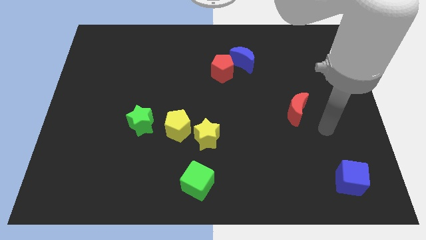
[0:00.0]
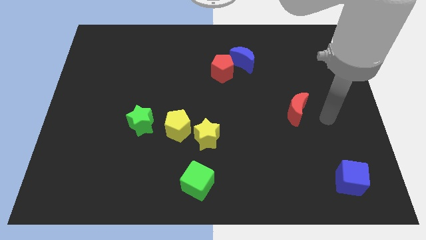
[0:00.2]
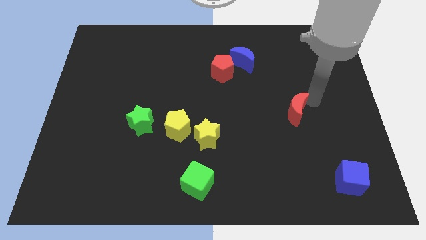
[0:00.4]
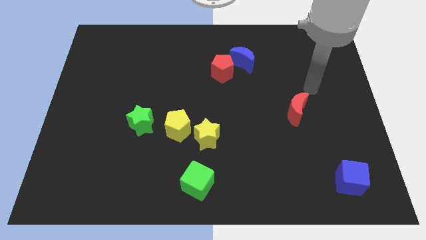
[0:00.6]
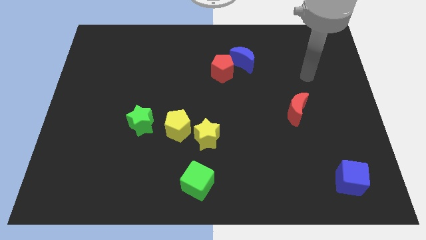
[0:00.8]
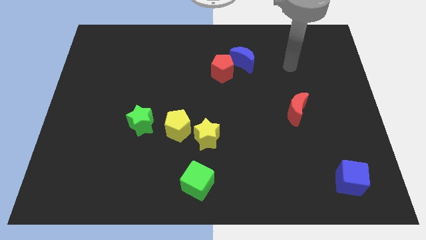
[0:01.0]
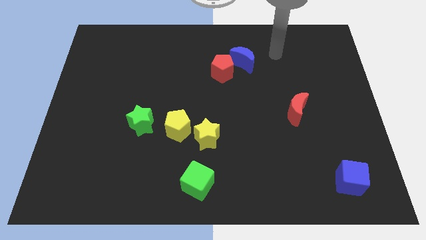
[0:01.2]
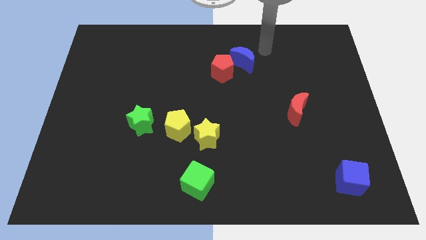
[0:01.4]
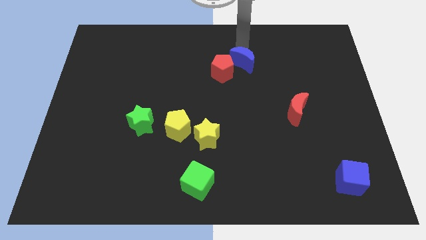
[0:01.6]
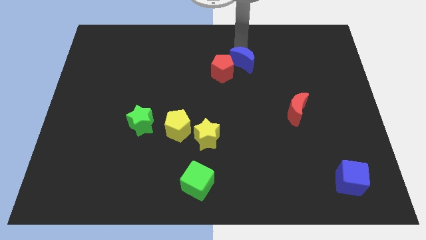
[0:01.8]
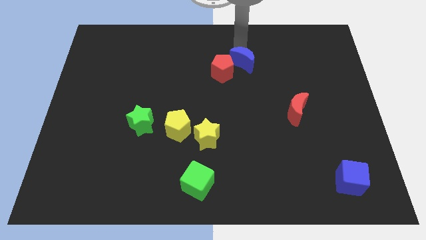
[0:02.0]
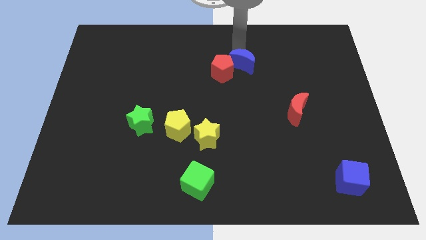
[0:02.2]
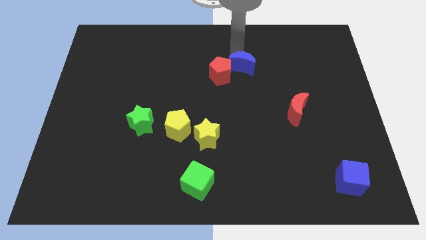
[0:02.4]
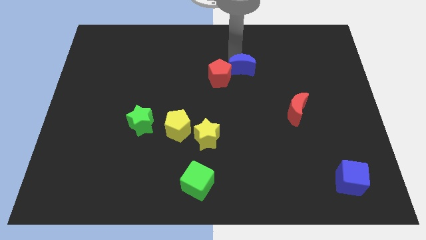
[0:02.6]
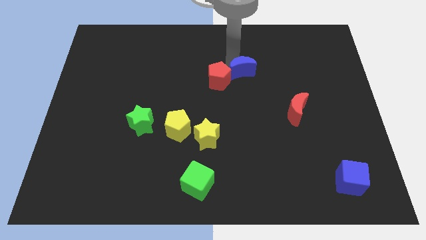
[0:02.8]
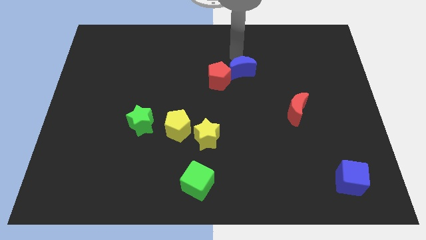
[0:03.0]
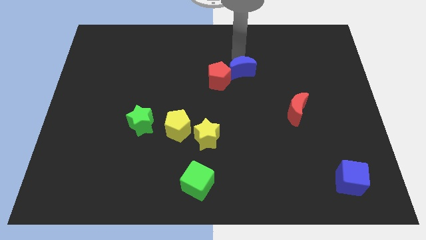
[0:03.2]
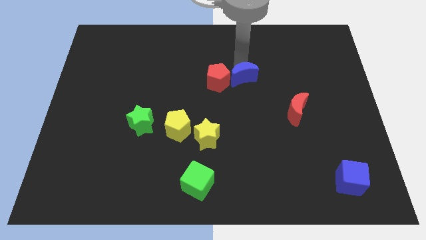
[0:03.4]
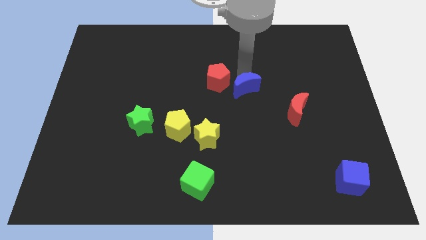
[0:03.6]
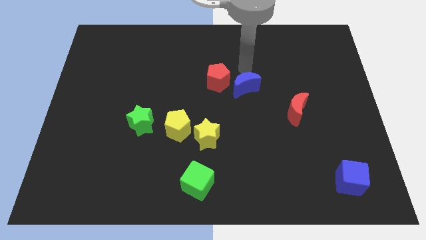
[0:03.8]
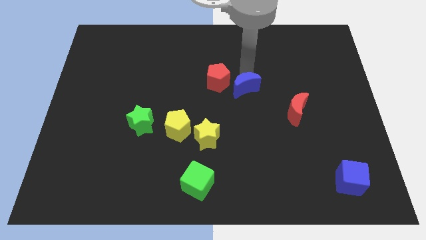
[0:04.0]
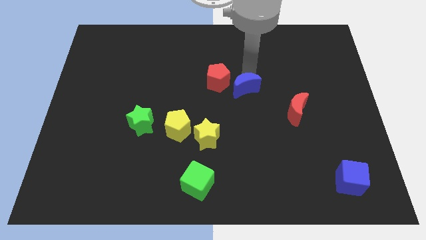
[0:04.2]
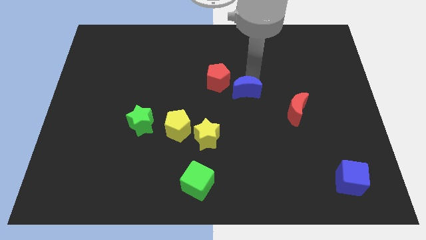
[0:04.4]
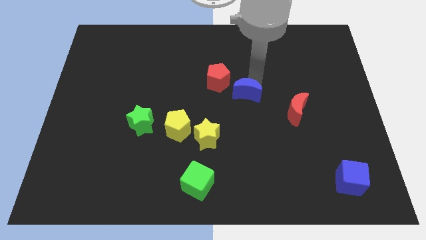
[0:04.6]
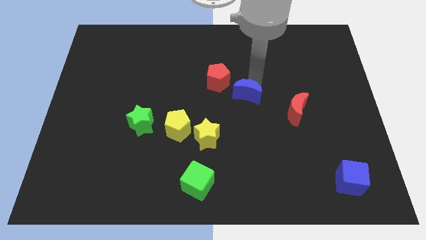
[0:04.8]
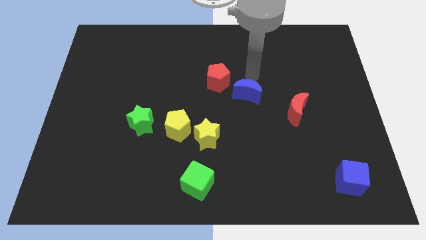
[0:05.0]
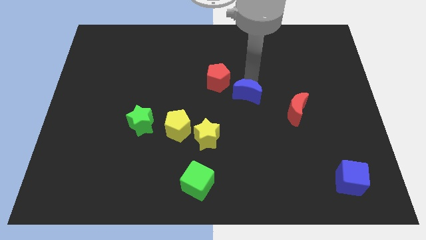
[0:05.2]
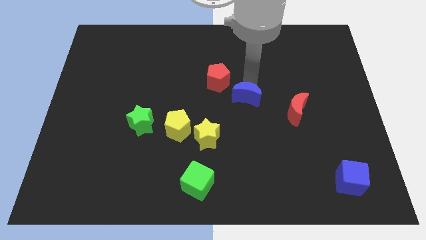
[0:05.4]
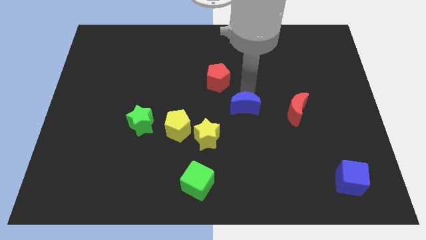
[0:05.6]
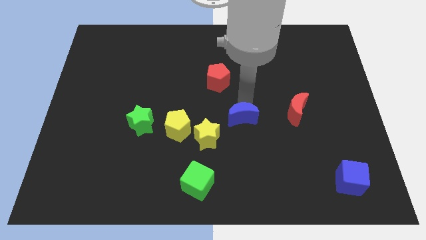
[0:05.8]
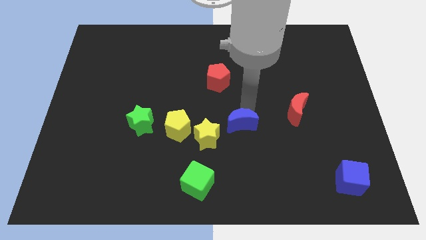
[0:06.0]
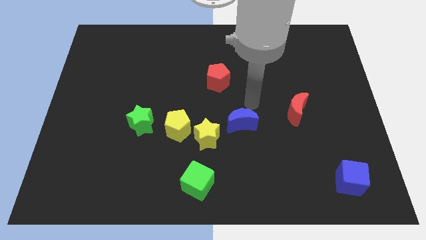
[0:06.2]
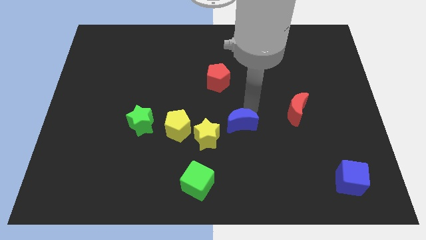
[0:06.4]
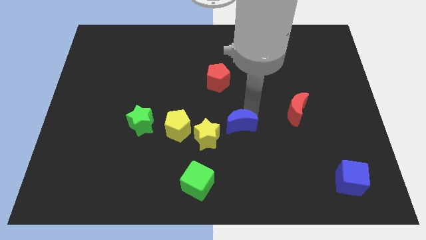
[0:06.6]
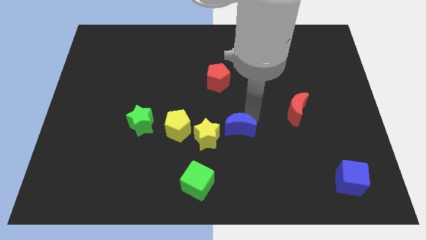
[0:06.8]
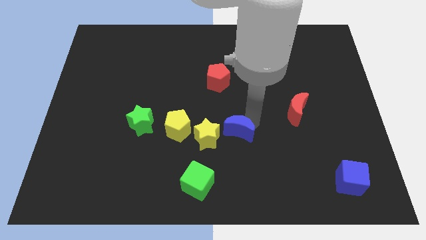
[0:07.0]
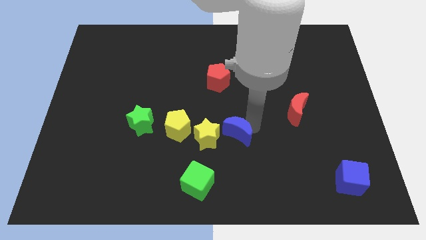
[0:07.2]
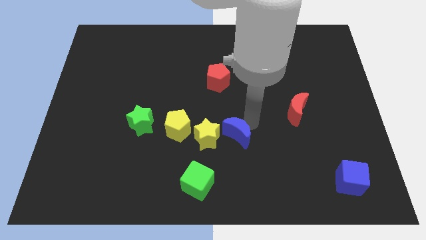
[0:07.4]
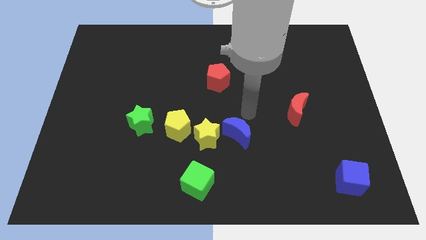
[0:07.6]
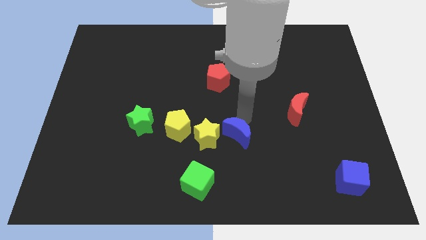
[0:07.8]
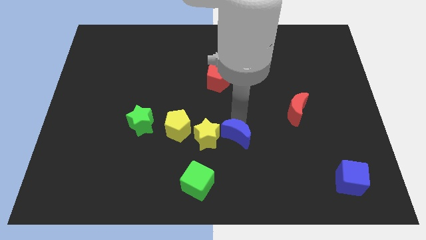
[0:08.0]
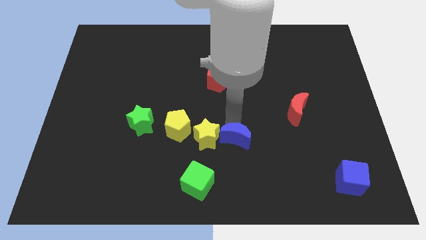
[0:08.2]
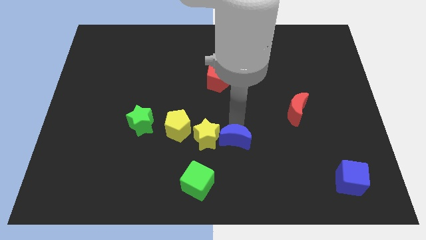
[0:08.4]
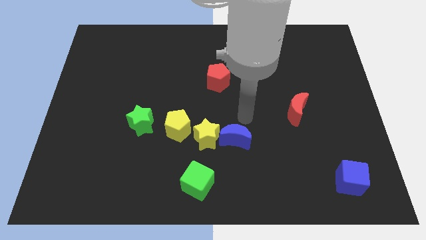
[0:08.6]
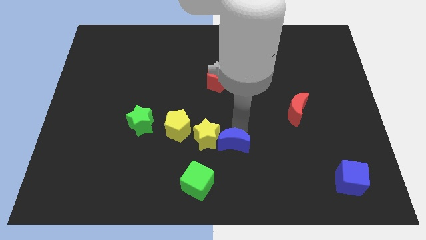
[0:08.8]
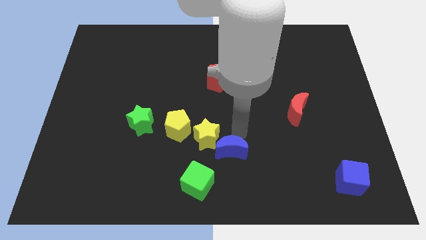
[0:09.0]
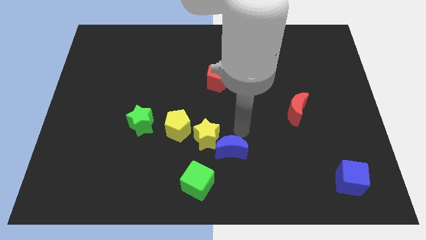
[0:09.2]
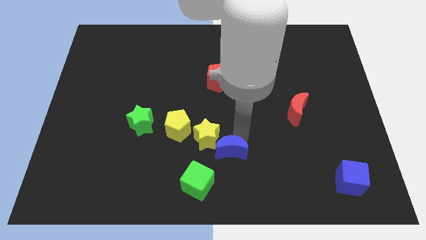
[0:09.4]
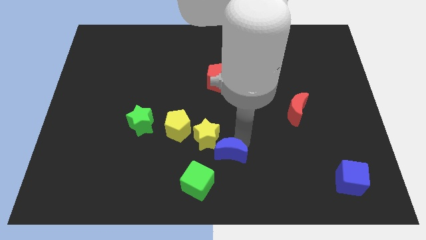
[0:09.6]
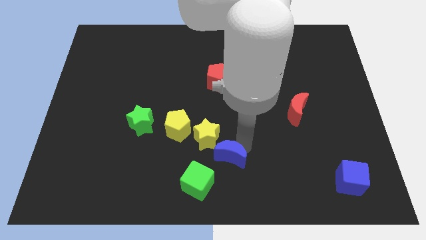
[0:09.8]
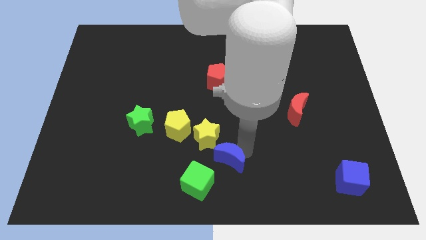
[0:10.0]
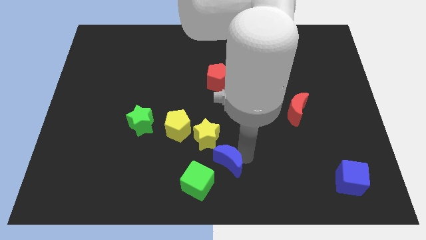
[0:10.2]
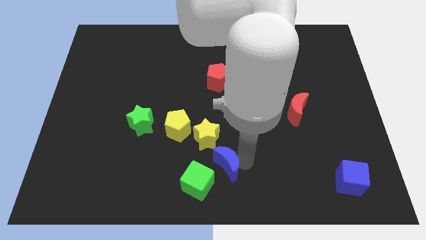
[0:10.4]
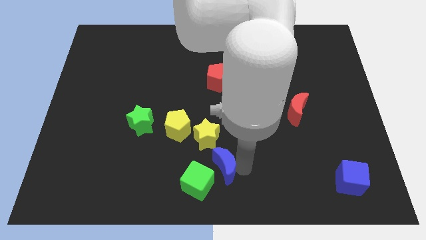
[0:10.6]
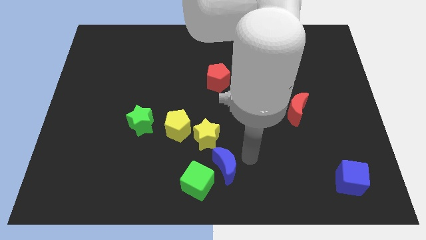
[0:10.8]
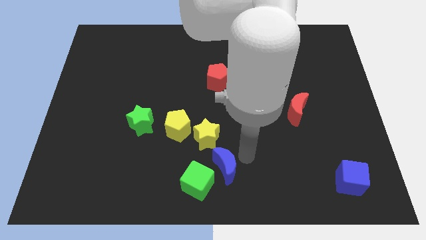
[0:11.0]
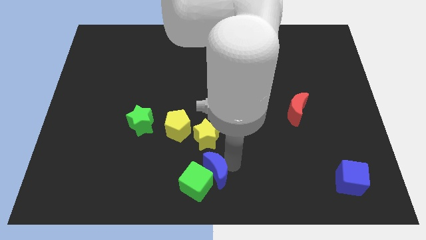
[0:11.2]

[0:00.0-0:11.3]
push the blue moon close to the green cube

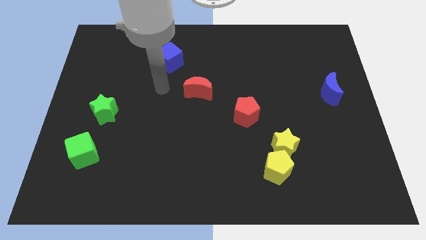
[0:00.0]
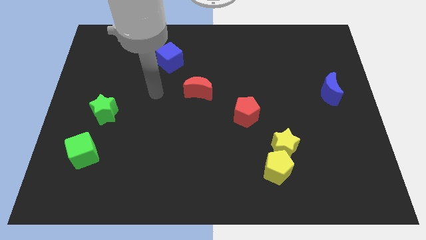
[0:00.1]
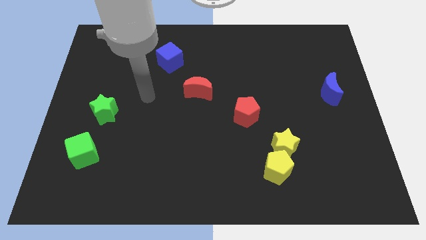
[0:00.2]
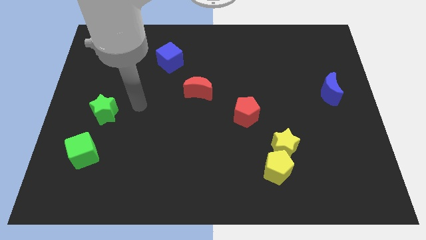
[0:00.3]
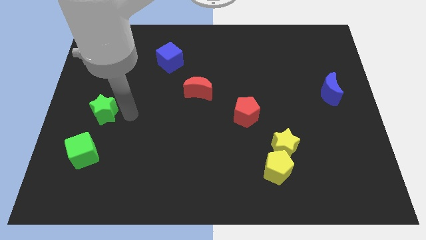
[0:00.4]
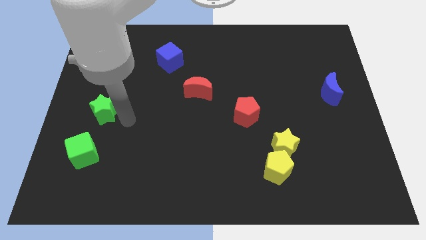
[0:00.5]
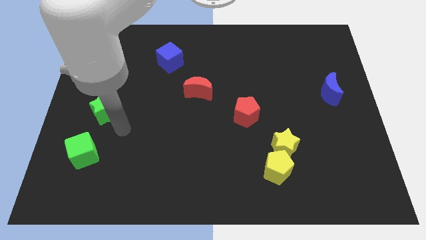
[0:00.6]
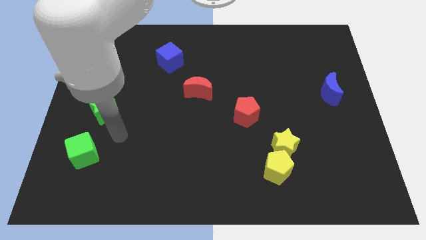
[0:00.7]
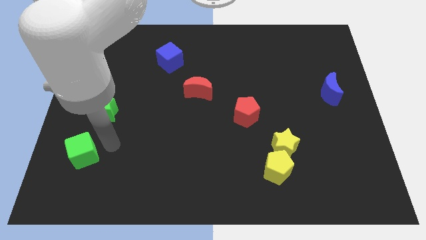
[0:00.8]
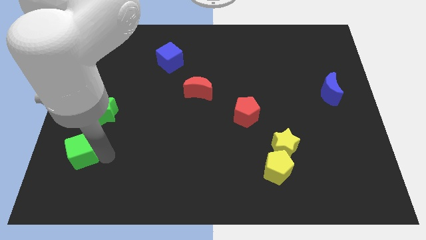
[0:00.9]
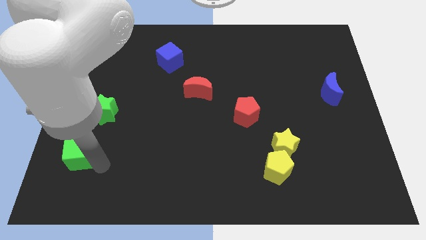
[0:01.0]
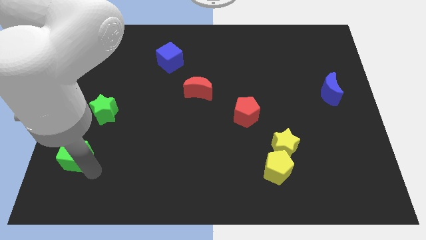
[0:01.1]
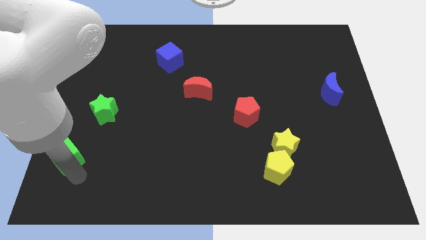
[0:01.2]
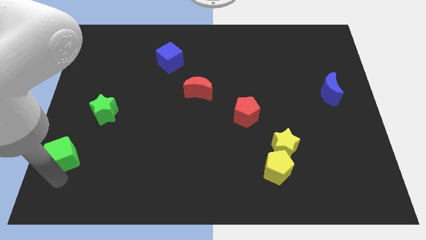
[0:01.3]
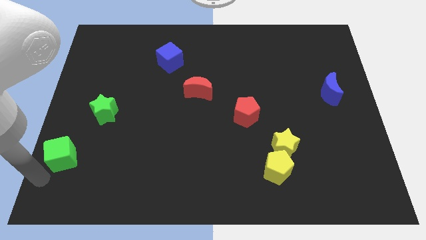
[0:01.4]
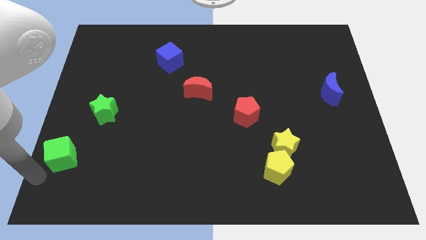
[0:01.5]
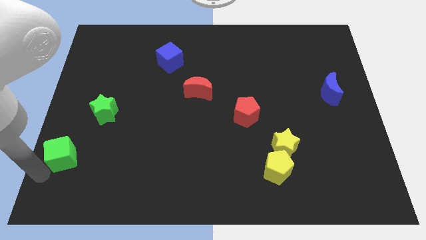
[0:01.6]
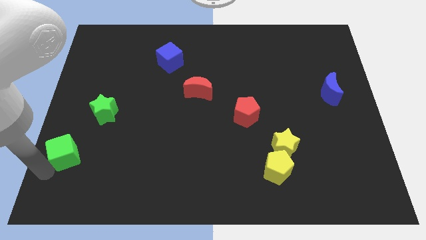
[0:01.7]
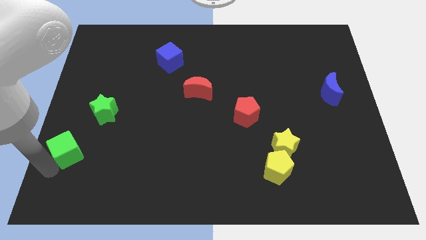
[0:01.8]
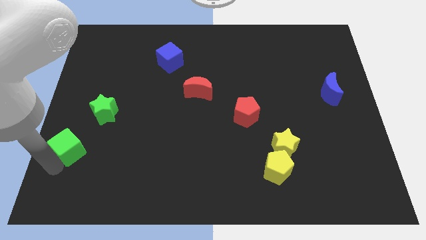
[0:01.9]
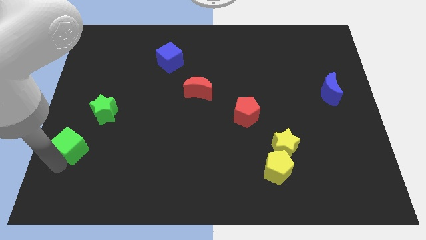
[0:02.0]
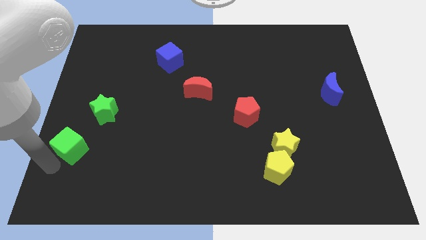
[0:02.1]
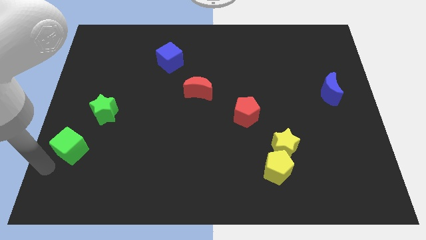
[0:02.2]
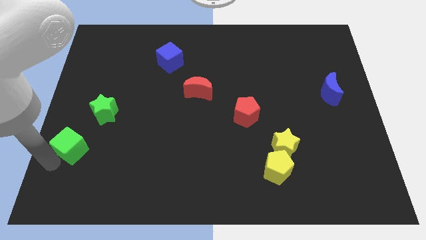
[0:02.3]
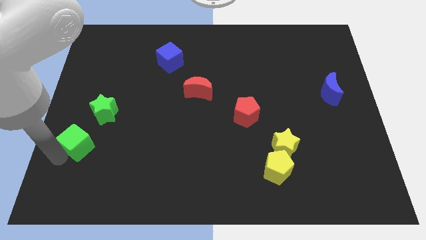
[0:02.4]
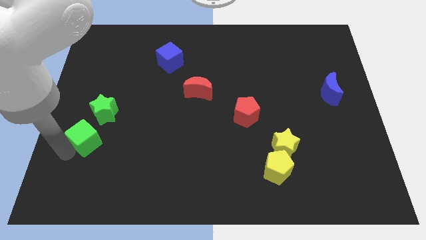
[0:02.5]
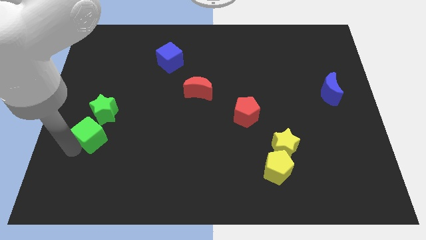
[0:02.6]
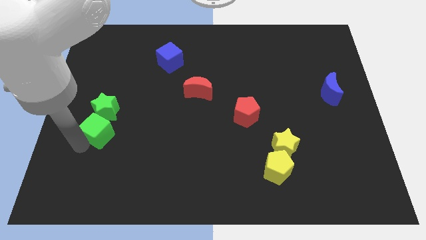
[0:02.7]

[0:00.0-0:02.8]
slide the green cube next to the green star
